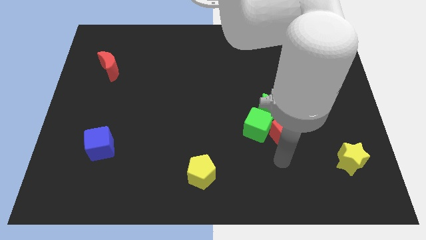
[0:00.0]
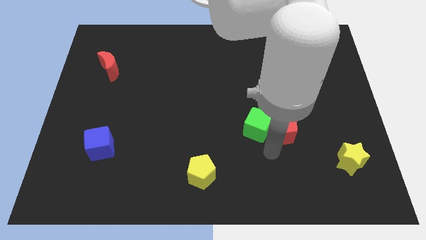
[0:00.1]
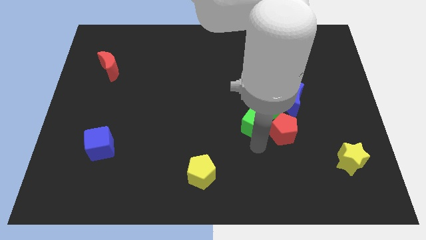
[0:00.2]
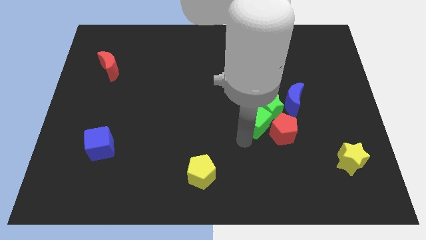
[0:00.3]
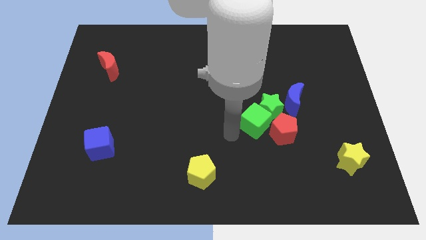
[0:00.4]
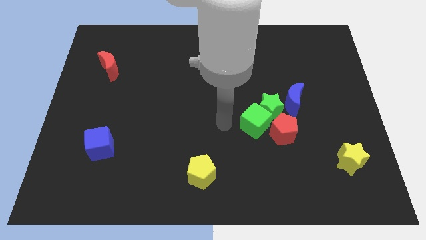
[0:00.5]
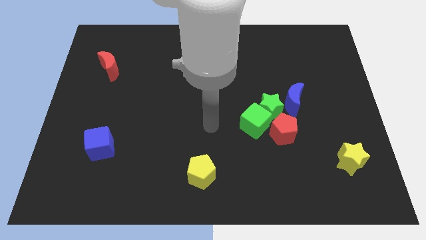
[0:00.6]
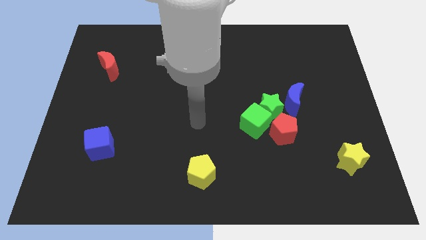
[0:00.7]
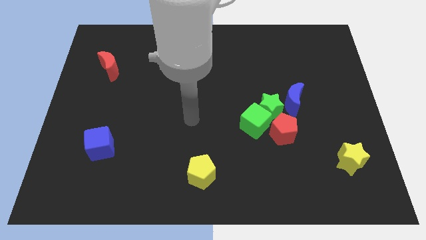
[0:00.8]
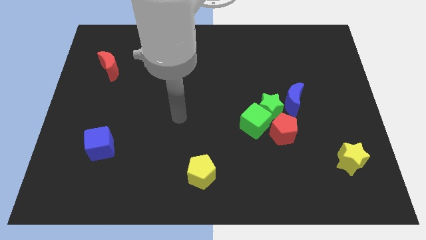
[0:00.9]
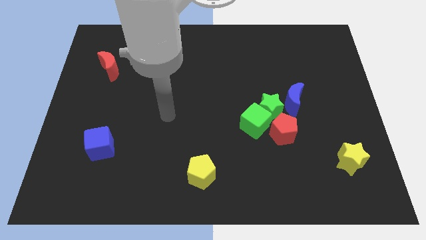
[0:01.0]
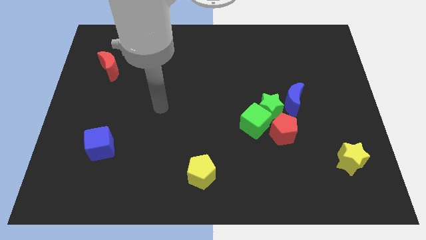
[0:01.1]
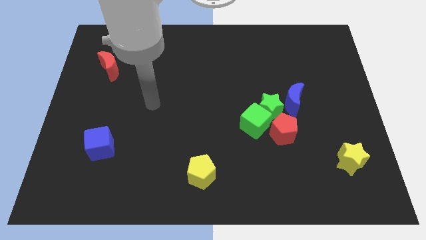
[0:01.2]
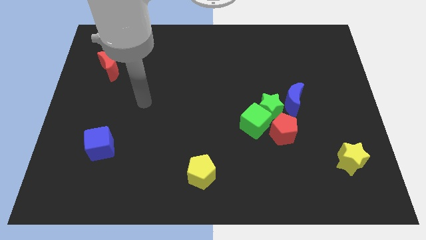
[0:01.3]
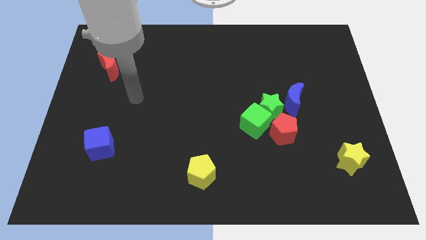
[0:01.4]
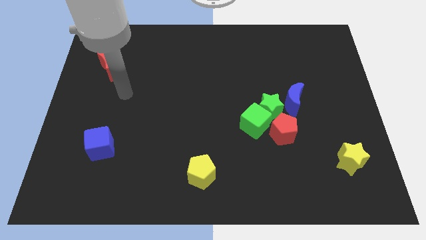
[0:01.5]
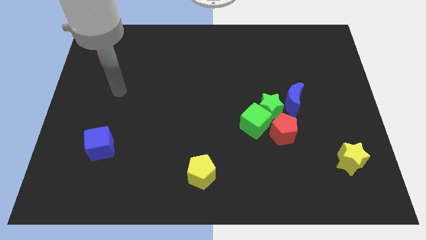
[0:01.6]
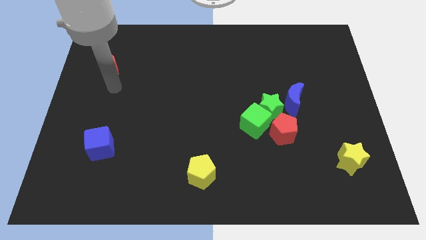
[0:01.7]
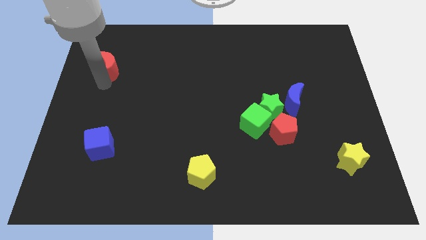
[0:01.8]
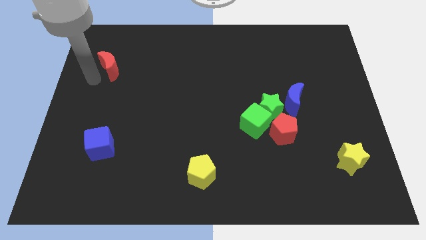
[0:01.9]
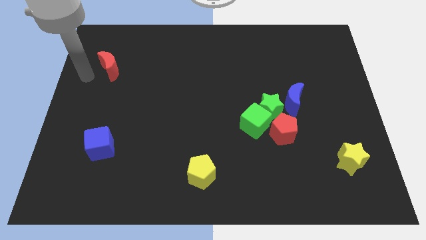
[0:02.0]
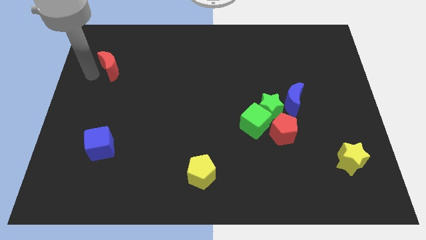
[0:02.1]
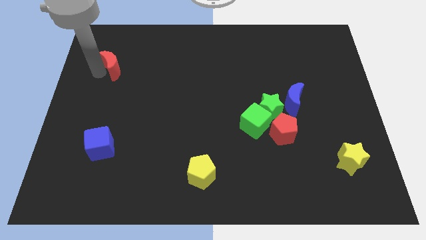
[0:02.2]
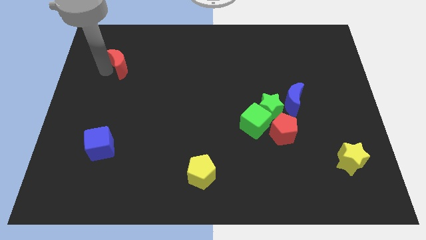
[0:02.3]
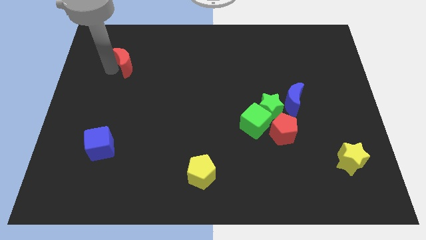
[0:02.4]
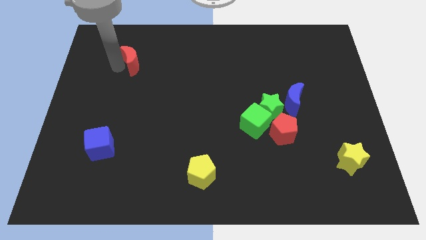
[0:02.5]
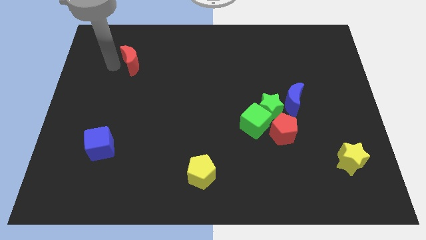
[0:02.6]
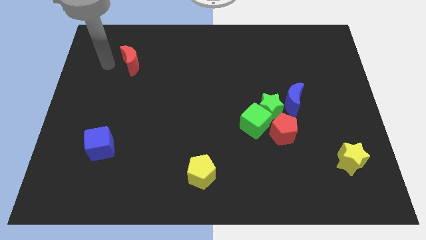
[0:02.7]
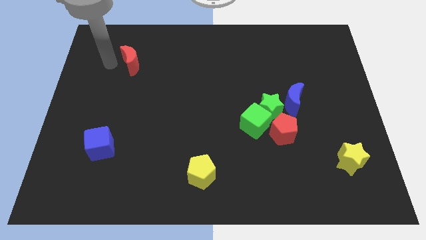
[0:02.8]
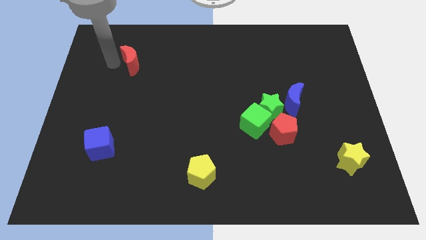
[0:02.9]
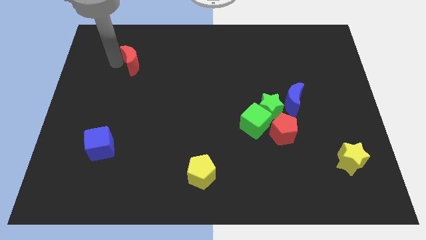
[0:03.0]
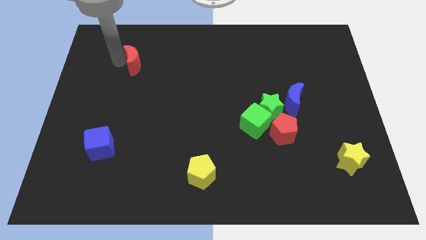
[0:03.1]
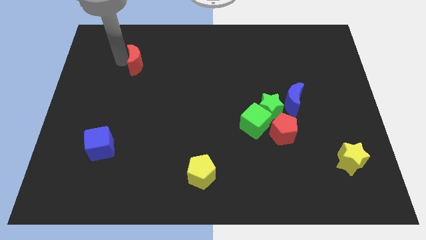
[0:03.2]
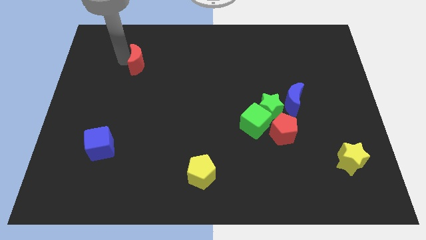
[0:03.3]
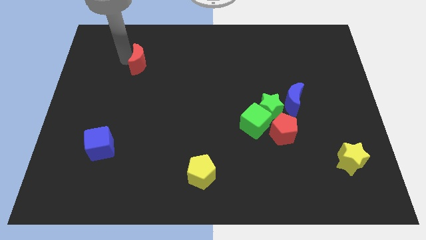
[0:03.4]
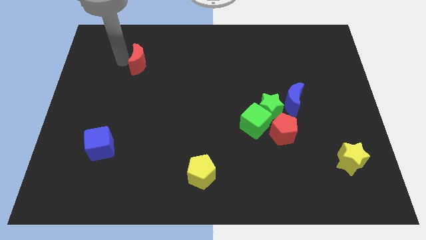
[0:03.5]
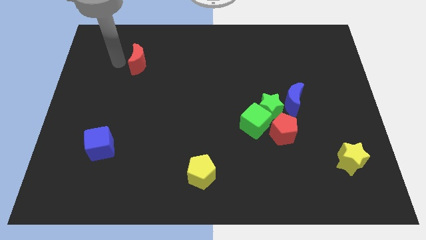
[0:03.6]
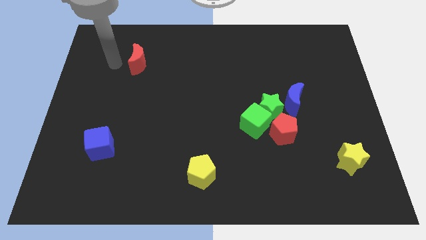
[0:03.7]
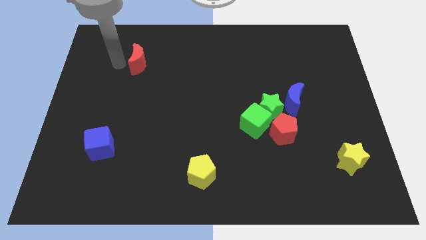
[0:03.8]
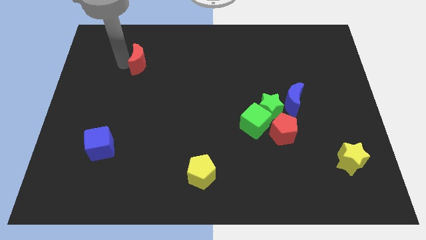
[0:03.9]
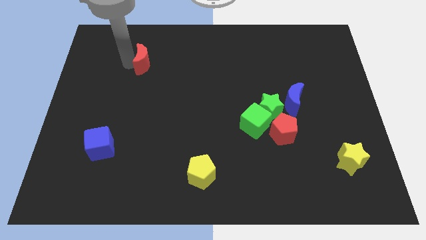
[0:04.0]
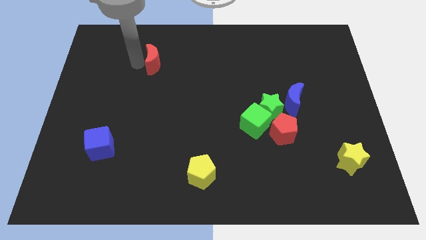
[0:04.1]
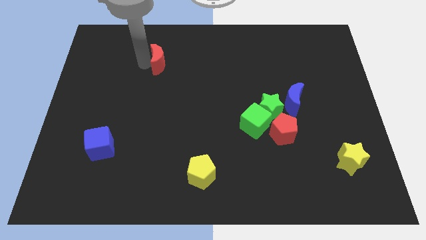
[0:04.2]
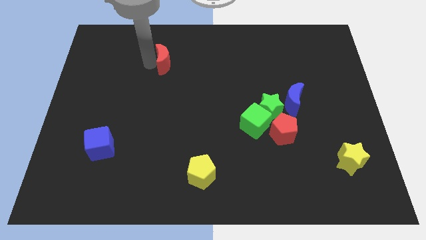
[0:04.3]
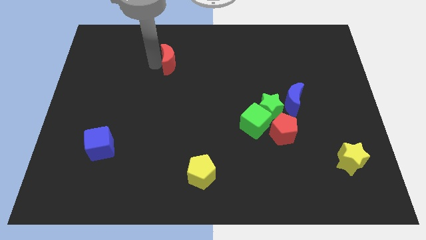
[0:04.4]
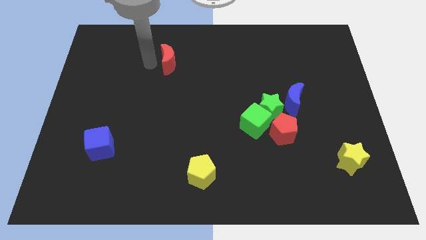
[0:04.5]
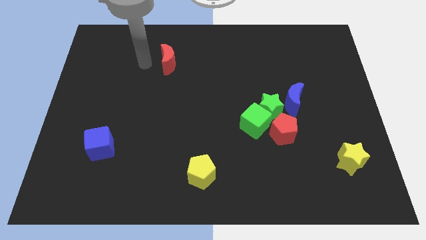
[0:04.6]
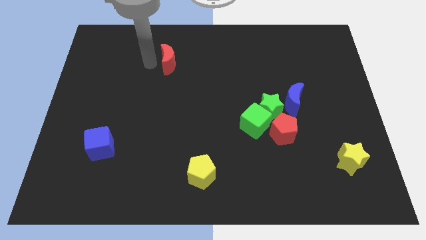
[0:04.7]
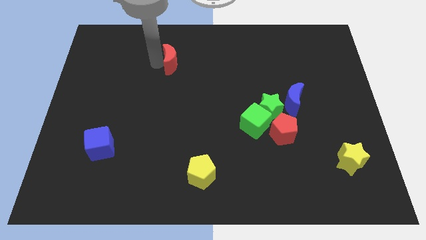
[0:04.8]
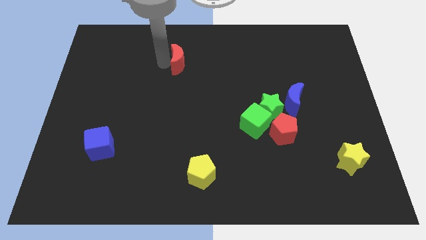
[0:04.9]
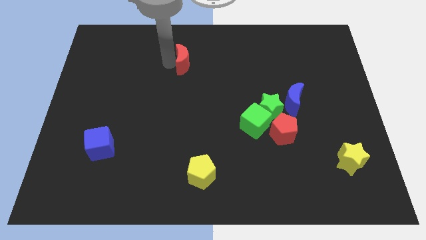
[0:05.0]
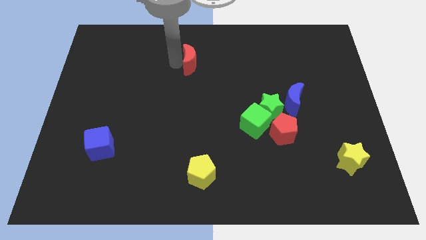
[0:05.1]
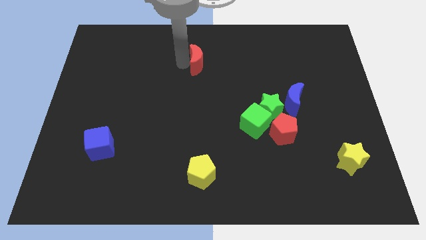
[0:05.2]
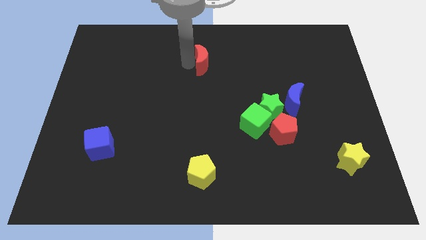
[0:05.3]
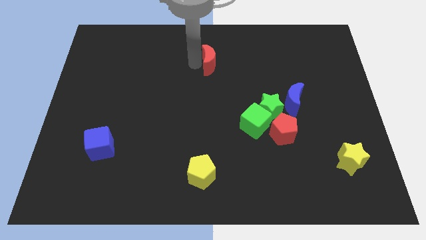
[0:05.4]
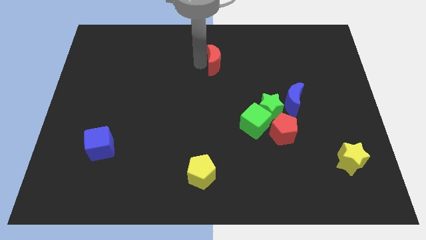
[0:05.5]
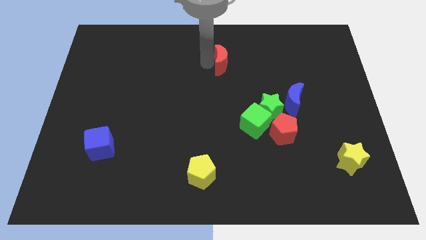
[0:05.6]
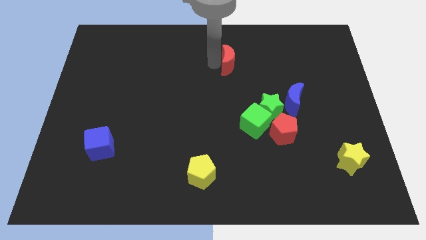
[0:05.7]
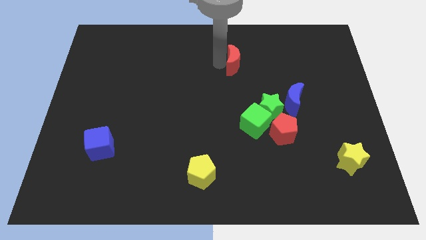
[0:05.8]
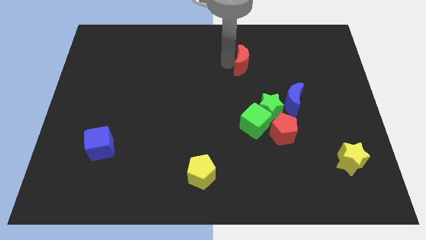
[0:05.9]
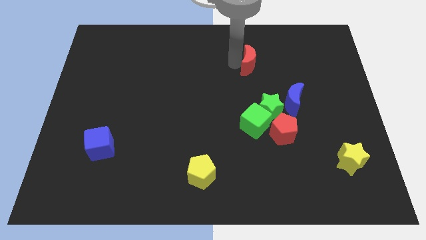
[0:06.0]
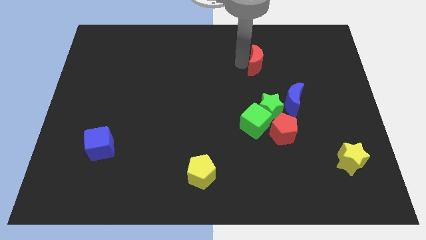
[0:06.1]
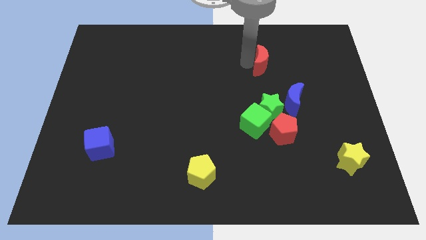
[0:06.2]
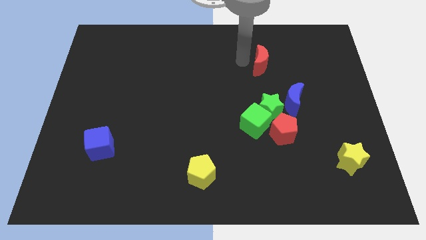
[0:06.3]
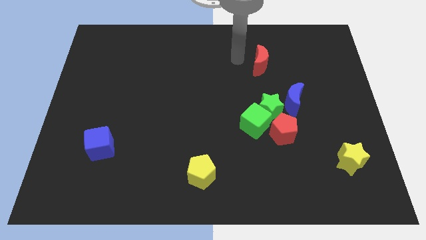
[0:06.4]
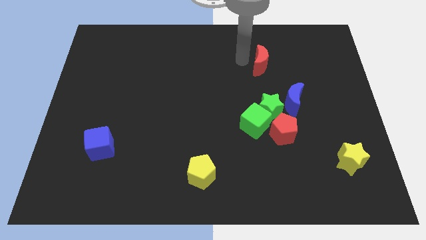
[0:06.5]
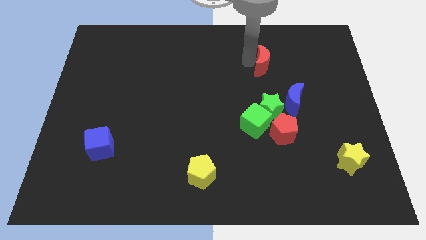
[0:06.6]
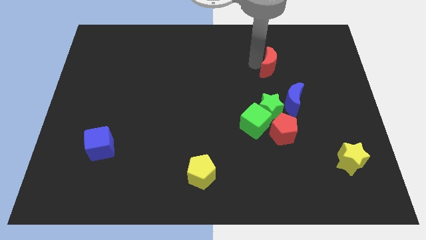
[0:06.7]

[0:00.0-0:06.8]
put the red moon to the top of the blue moon

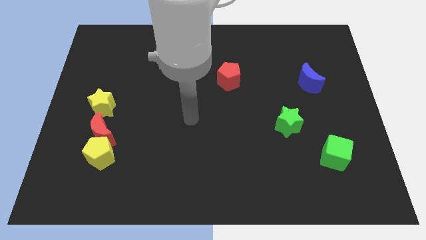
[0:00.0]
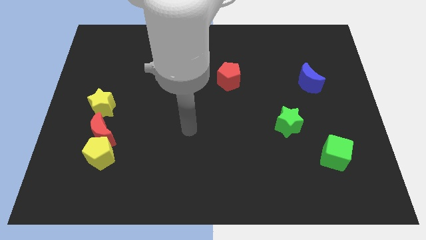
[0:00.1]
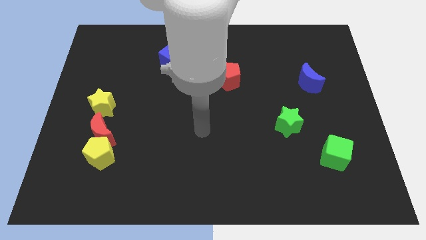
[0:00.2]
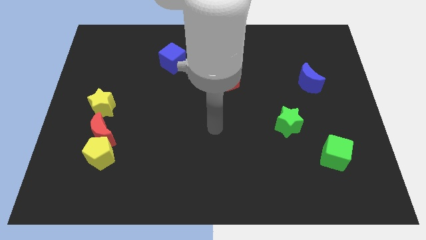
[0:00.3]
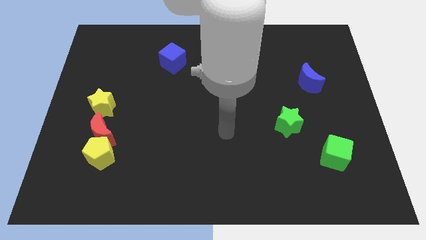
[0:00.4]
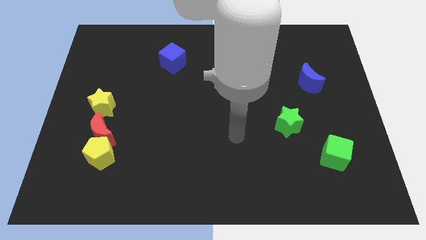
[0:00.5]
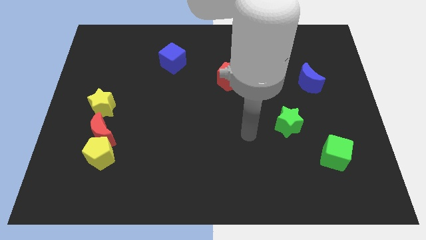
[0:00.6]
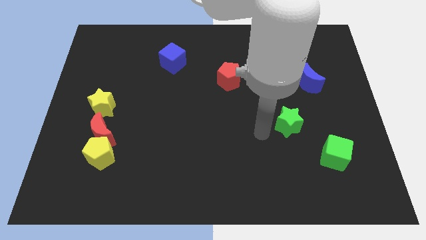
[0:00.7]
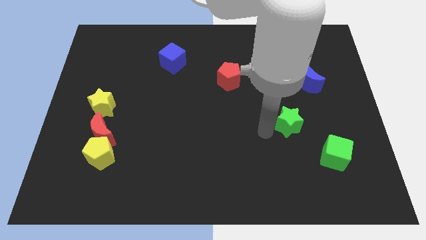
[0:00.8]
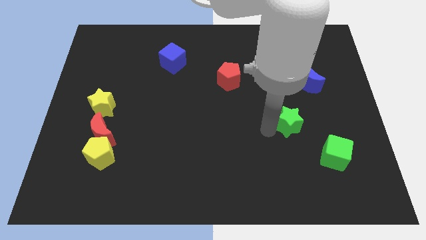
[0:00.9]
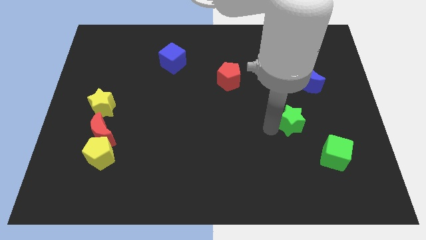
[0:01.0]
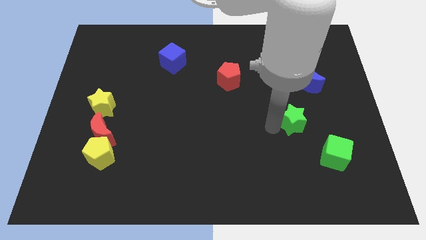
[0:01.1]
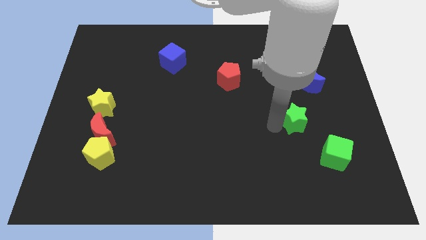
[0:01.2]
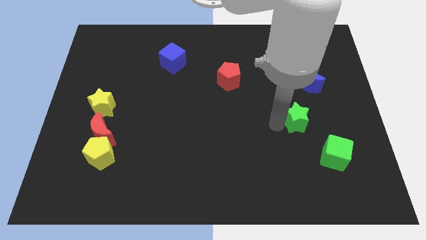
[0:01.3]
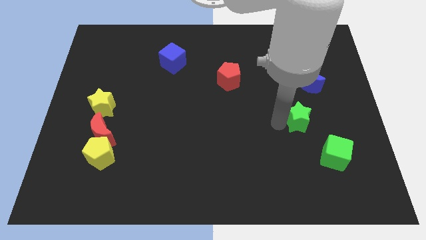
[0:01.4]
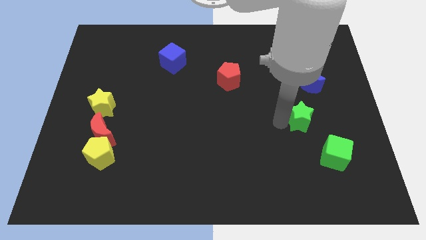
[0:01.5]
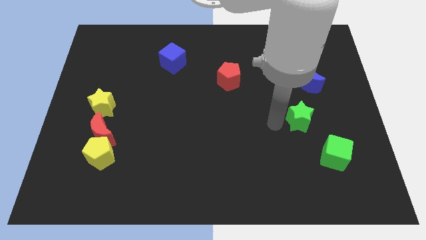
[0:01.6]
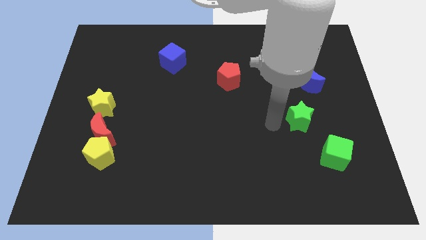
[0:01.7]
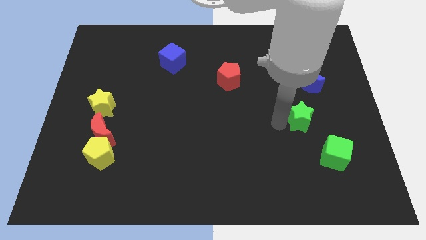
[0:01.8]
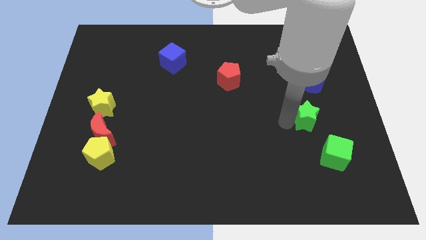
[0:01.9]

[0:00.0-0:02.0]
move the green star to the top side of the green cube
